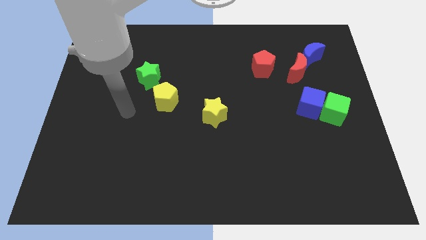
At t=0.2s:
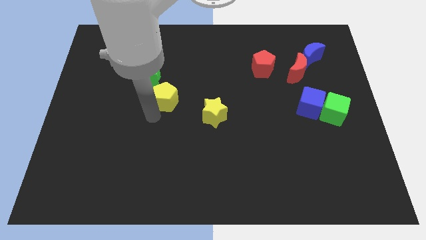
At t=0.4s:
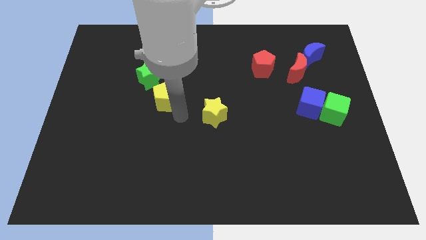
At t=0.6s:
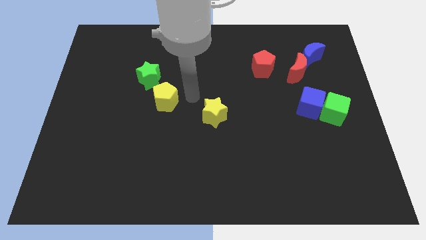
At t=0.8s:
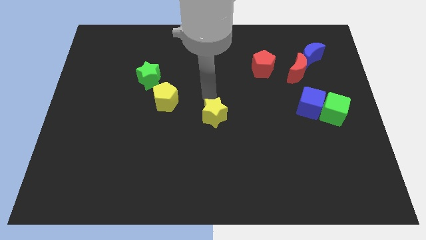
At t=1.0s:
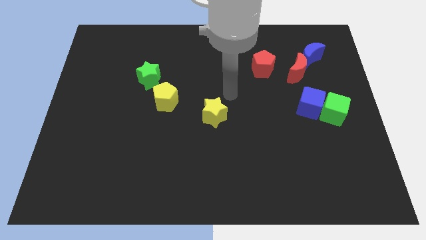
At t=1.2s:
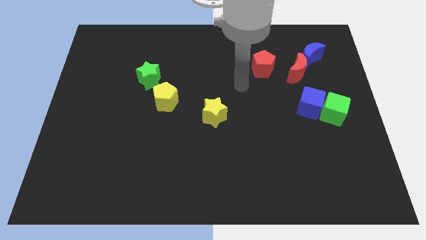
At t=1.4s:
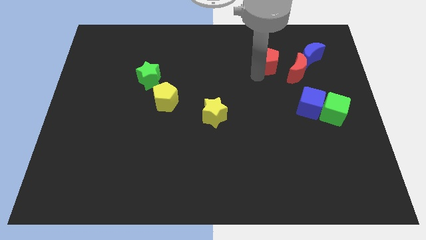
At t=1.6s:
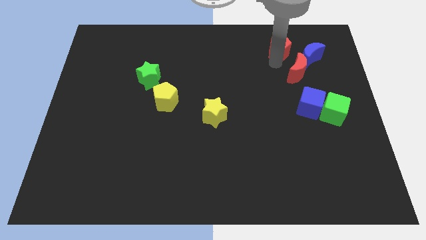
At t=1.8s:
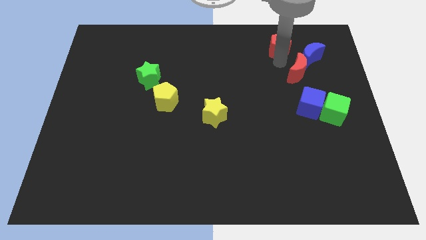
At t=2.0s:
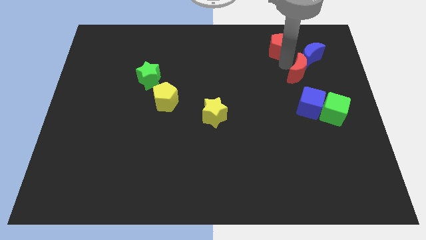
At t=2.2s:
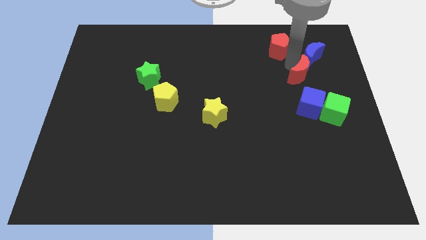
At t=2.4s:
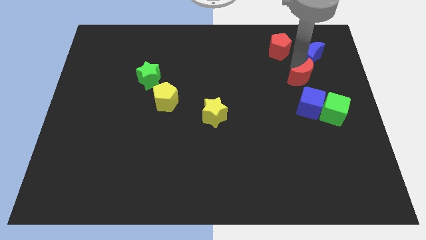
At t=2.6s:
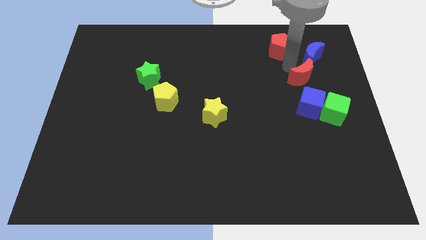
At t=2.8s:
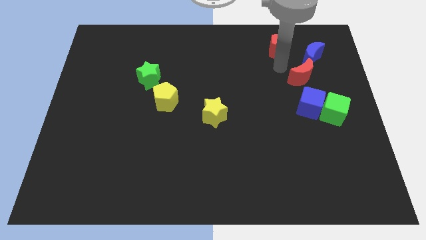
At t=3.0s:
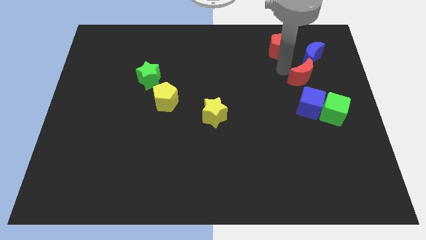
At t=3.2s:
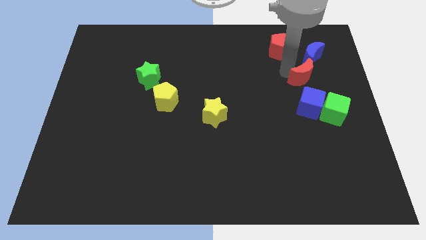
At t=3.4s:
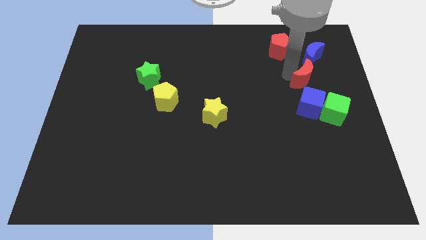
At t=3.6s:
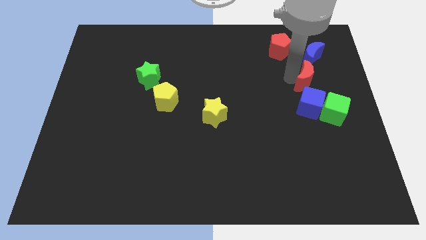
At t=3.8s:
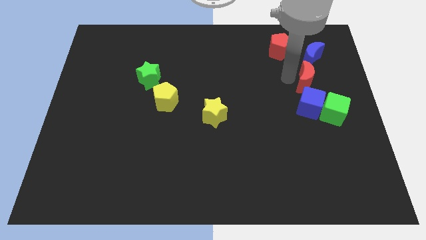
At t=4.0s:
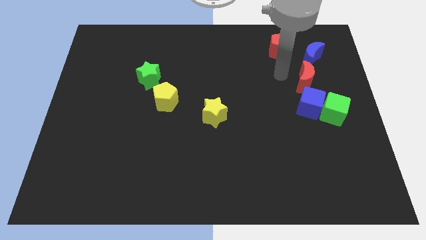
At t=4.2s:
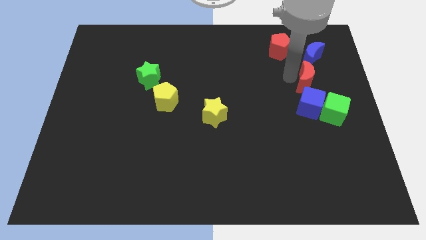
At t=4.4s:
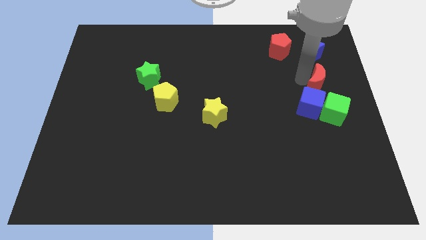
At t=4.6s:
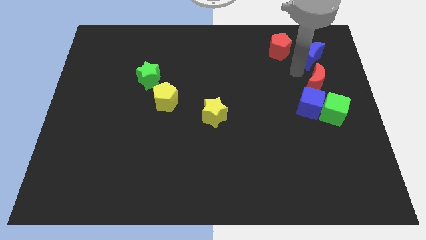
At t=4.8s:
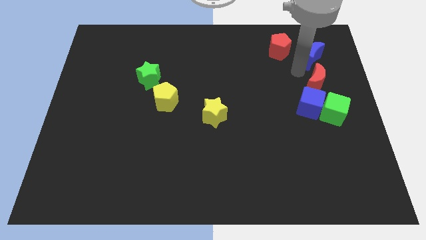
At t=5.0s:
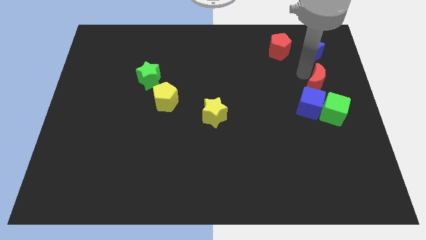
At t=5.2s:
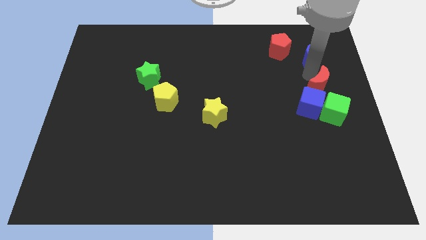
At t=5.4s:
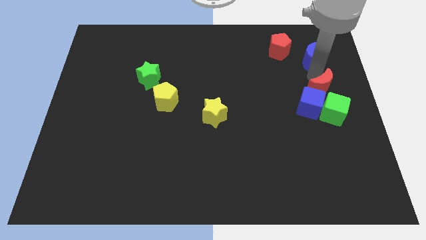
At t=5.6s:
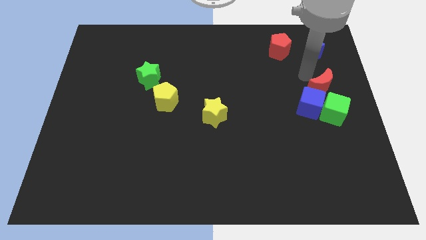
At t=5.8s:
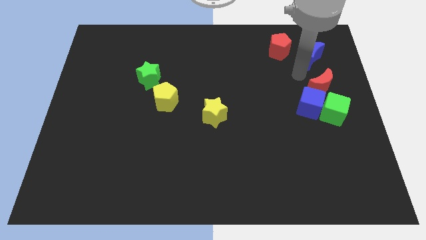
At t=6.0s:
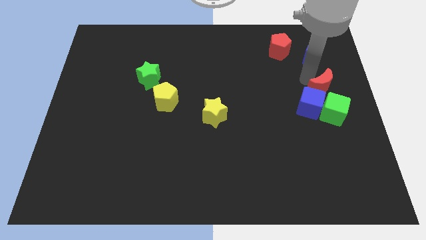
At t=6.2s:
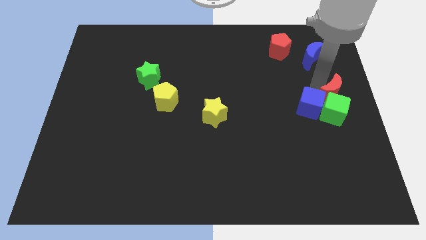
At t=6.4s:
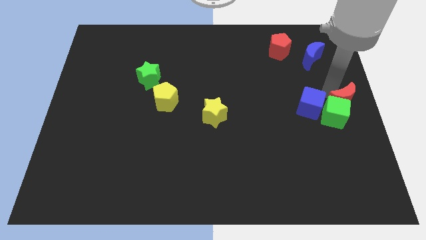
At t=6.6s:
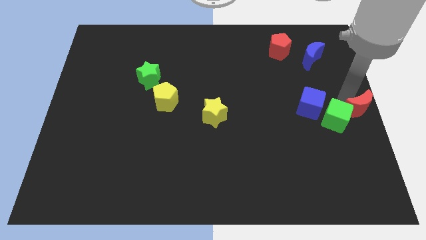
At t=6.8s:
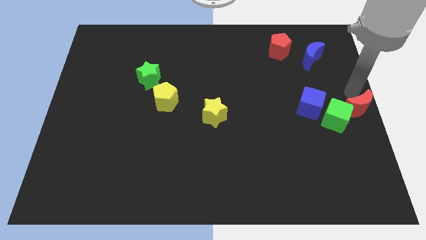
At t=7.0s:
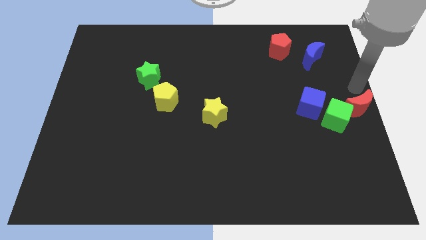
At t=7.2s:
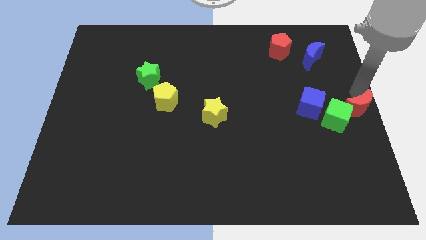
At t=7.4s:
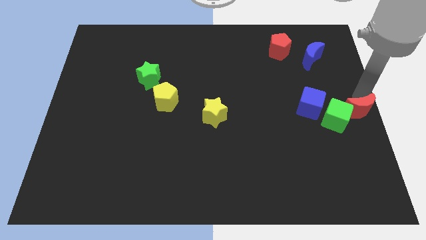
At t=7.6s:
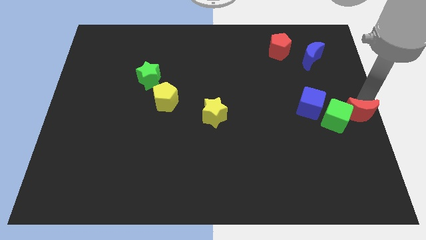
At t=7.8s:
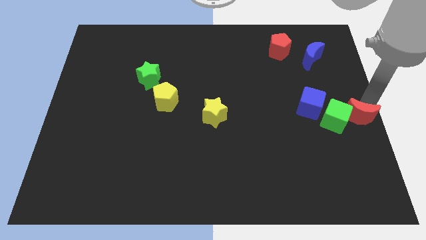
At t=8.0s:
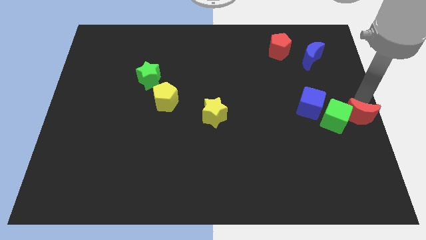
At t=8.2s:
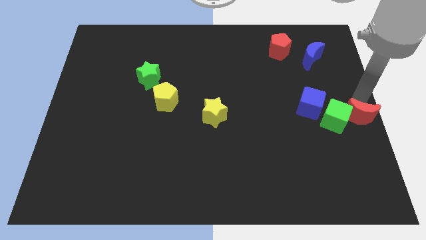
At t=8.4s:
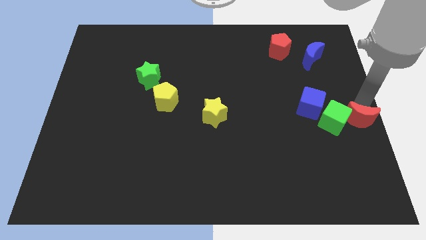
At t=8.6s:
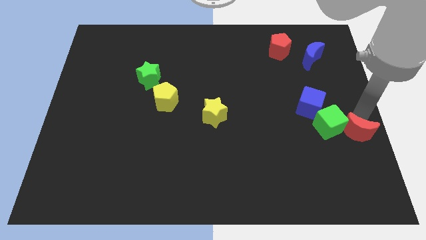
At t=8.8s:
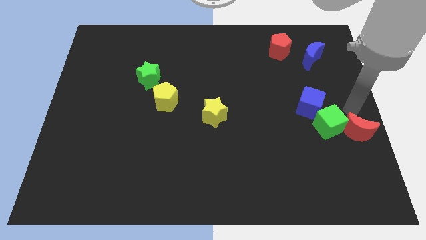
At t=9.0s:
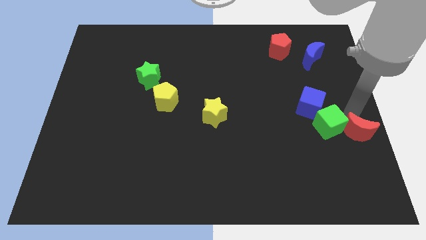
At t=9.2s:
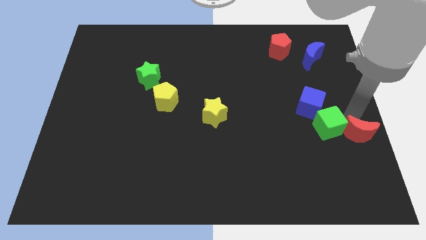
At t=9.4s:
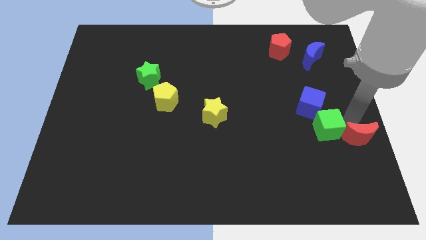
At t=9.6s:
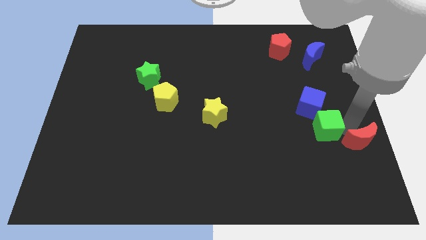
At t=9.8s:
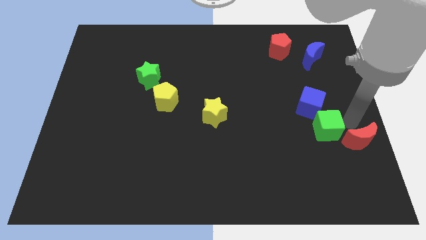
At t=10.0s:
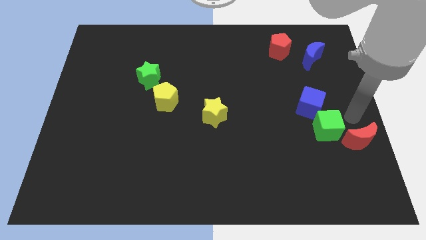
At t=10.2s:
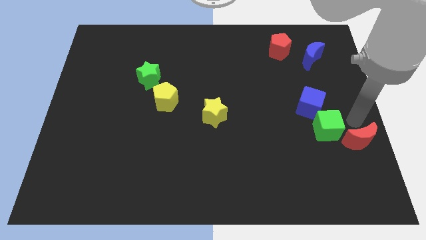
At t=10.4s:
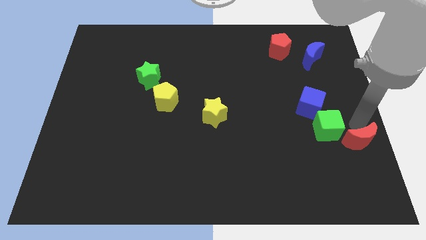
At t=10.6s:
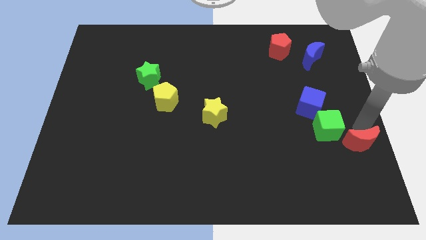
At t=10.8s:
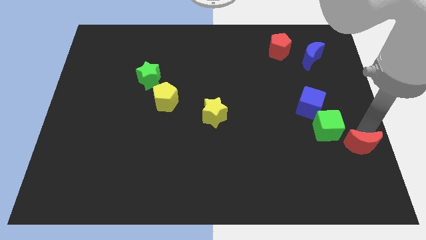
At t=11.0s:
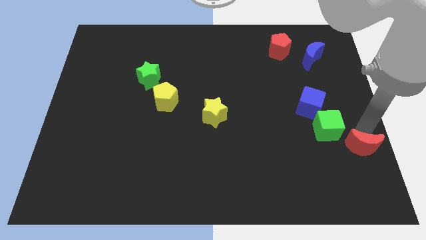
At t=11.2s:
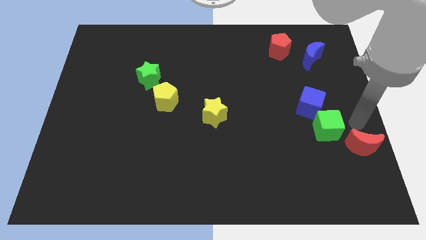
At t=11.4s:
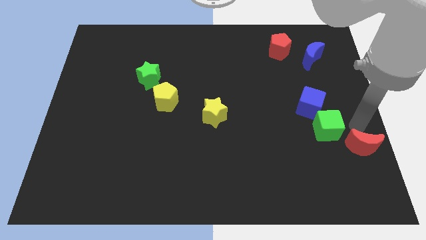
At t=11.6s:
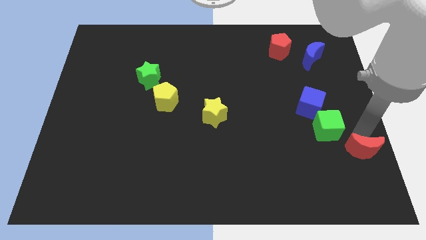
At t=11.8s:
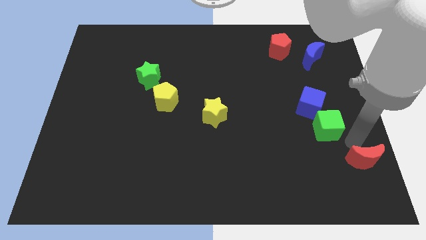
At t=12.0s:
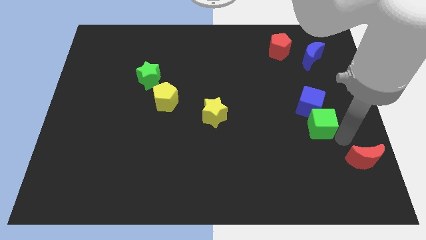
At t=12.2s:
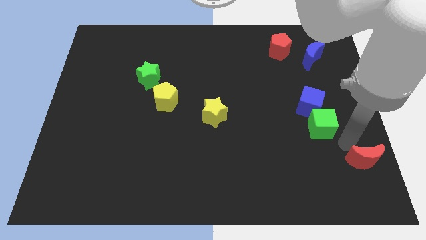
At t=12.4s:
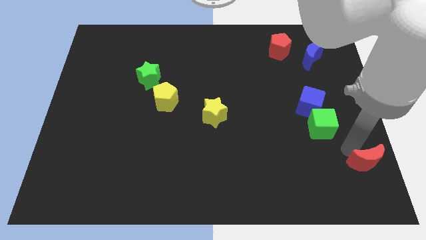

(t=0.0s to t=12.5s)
move the red moon to the bottom right corner
